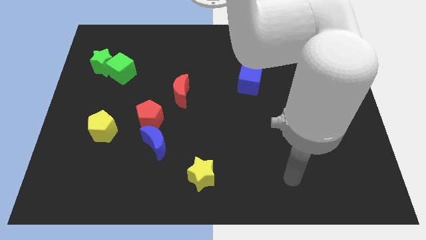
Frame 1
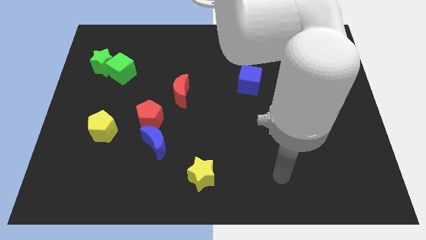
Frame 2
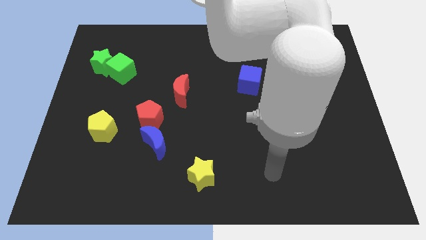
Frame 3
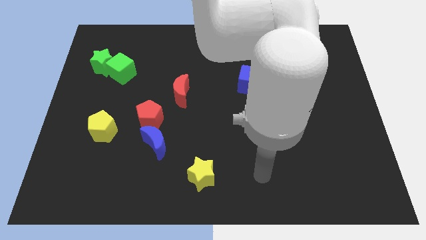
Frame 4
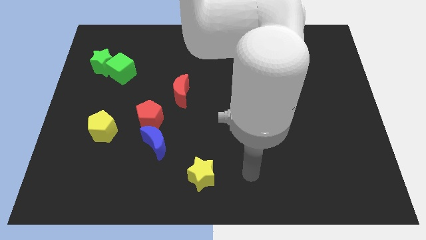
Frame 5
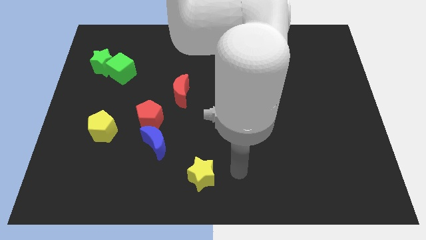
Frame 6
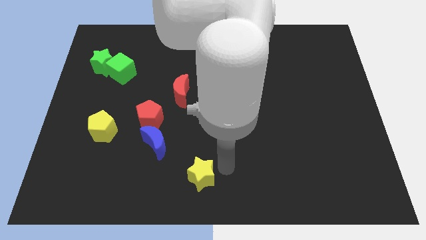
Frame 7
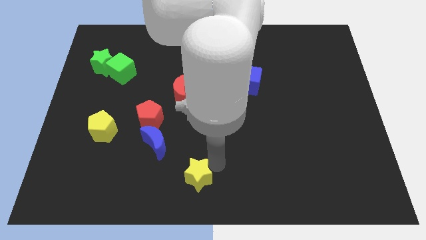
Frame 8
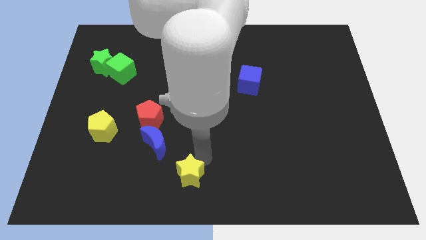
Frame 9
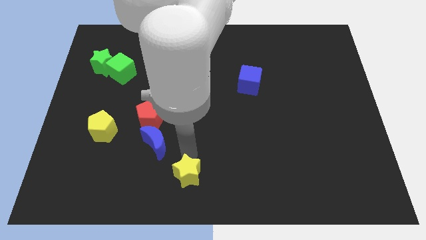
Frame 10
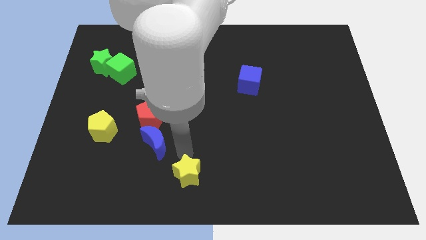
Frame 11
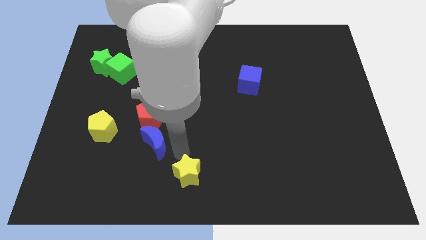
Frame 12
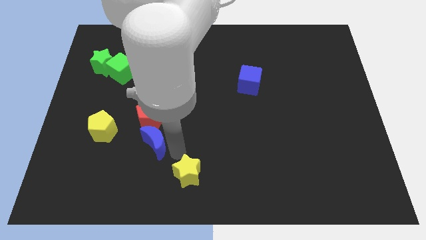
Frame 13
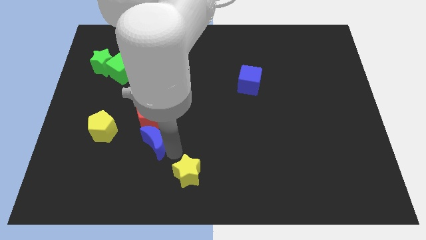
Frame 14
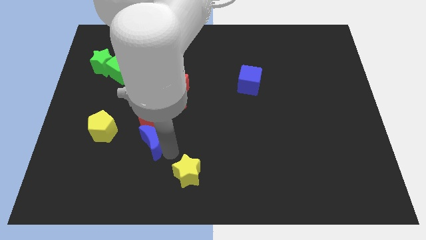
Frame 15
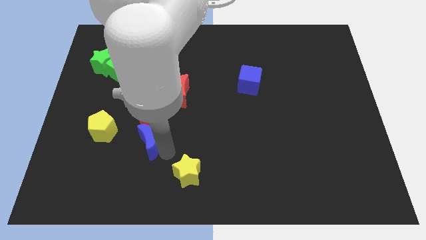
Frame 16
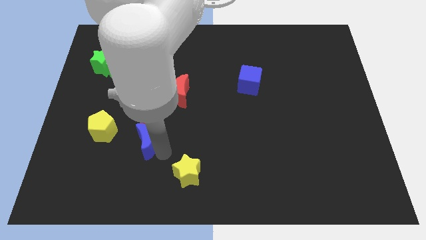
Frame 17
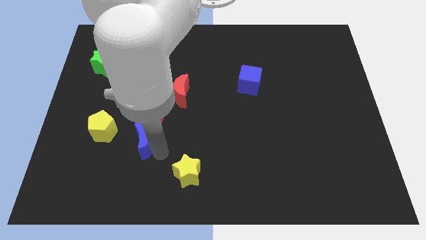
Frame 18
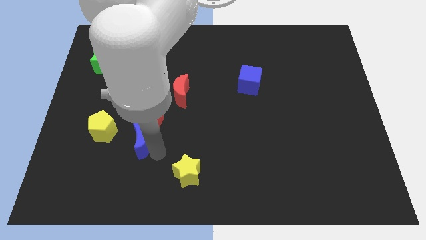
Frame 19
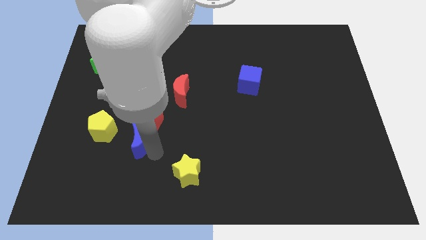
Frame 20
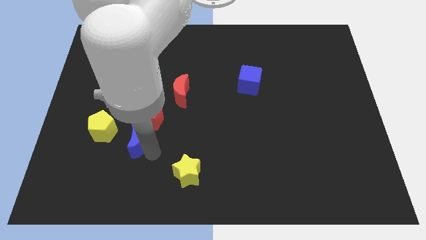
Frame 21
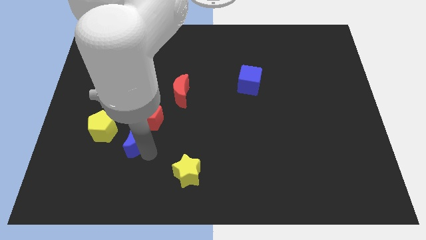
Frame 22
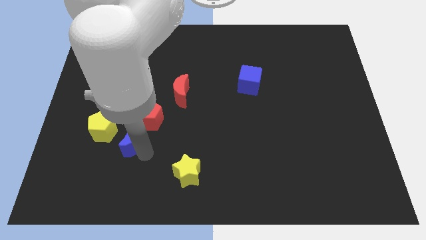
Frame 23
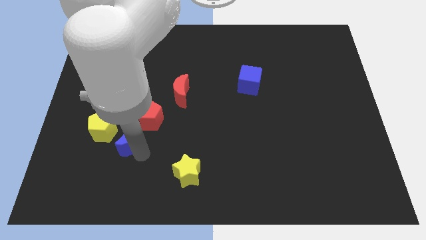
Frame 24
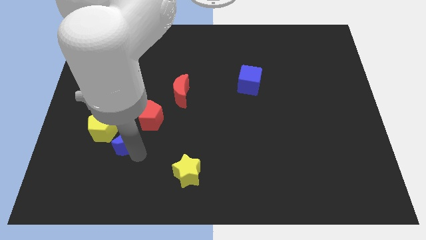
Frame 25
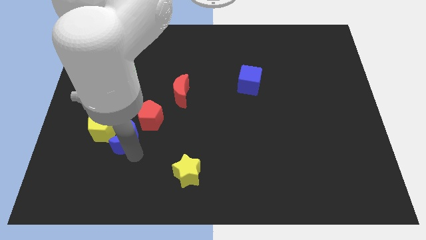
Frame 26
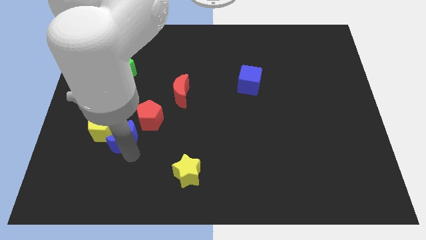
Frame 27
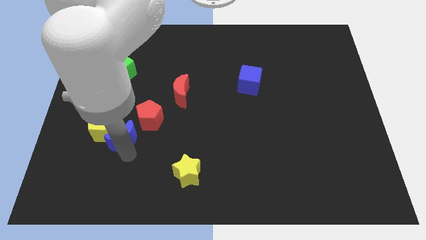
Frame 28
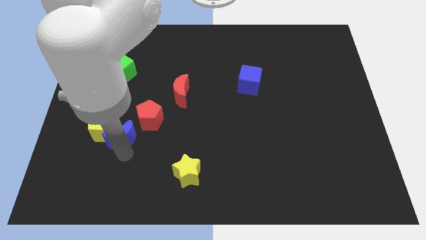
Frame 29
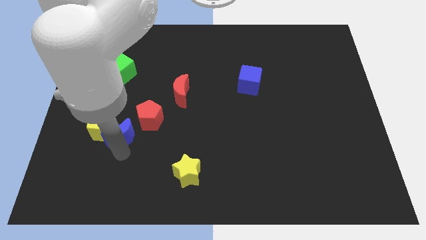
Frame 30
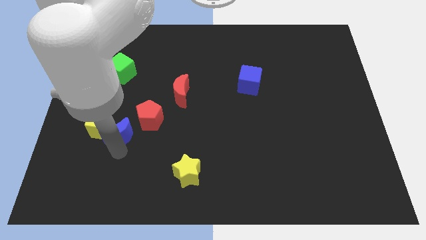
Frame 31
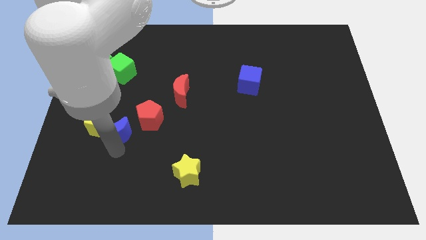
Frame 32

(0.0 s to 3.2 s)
slightly move the blue moon upwards and to the left

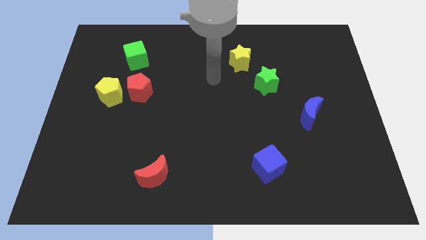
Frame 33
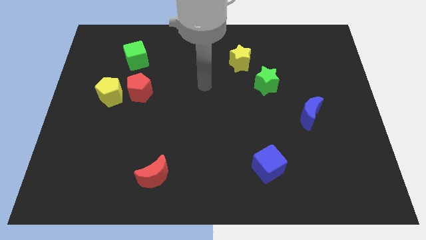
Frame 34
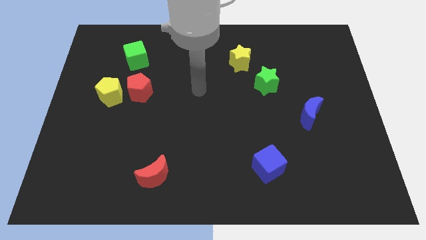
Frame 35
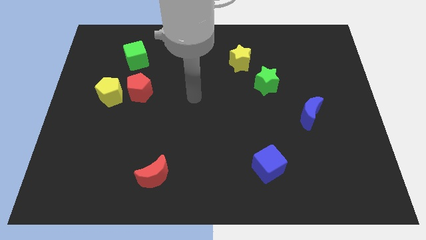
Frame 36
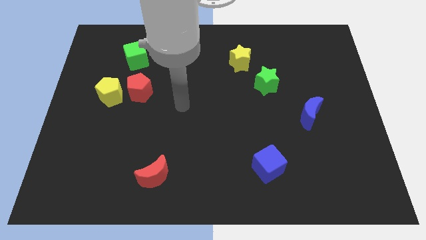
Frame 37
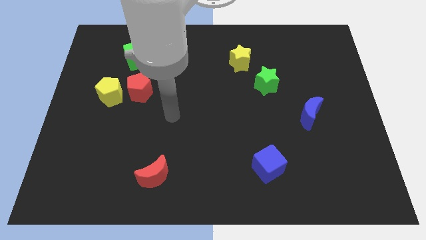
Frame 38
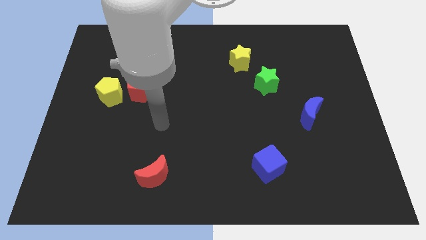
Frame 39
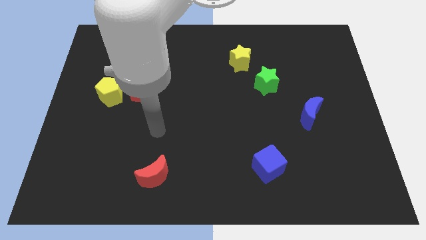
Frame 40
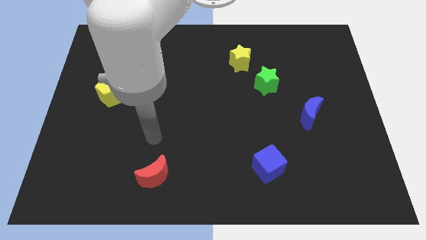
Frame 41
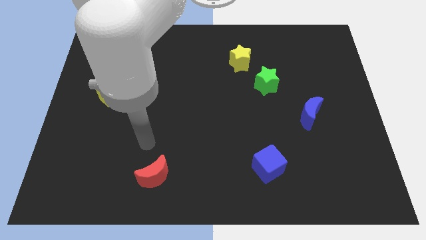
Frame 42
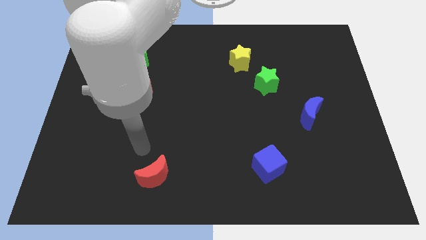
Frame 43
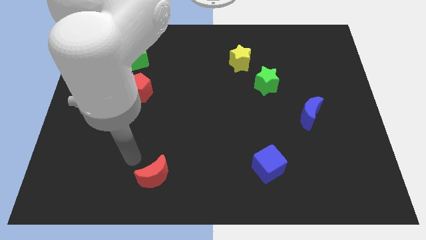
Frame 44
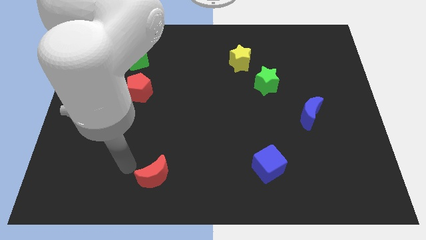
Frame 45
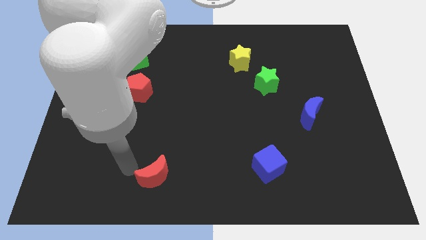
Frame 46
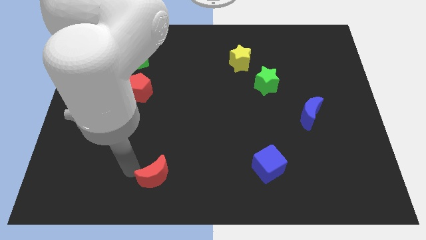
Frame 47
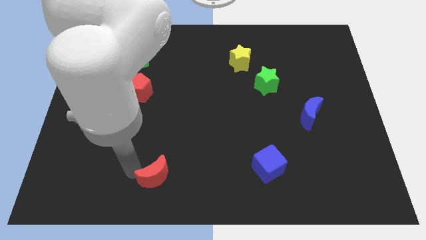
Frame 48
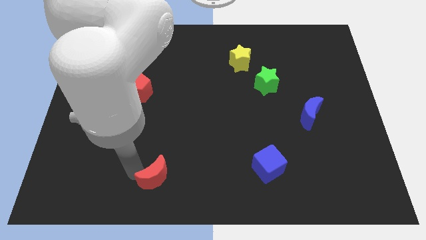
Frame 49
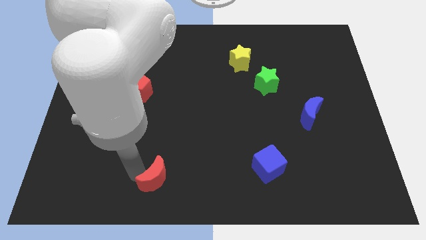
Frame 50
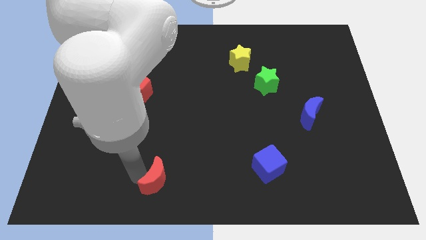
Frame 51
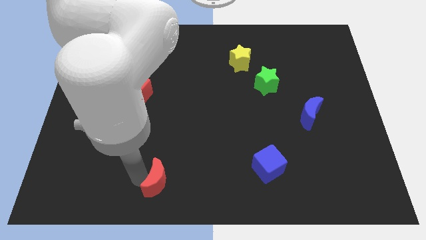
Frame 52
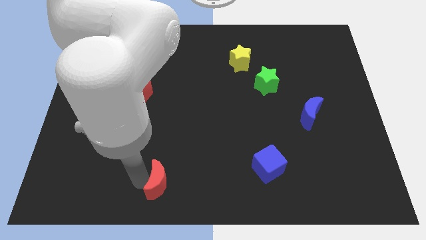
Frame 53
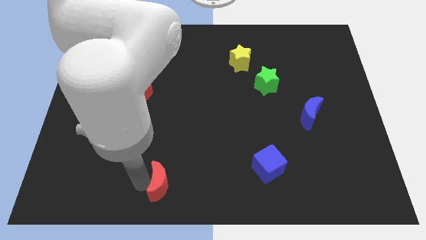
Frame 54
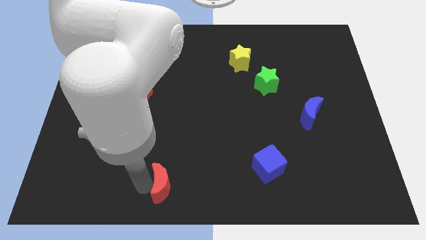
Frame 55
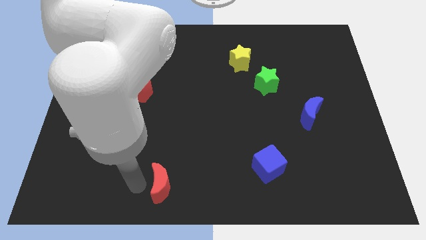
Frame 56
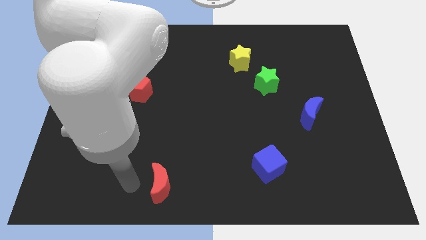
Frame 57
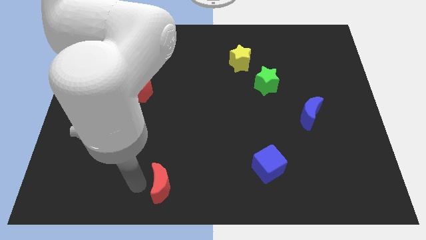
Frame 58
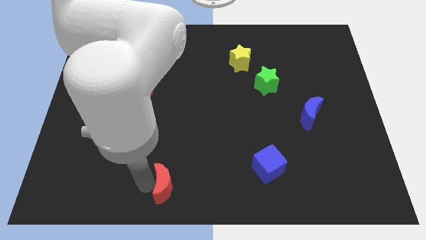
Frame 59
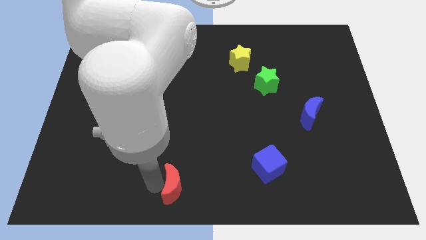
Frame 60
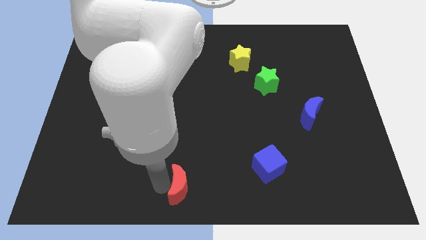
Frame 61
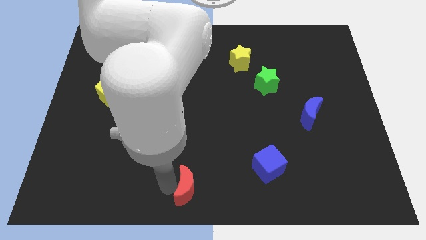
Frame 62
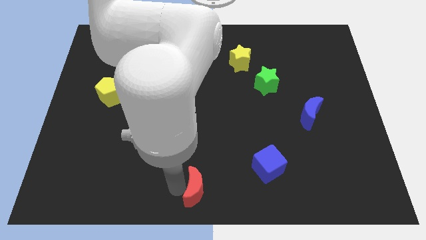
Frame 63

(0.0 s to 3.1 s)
move the red moon slightly right

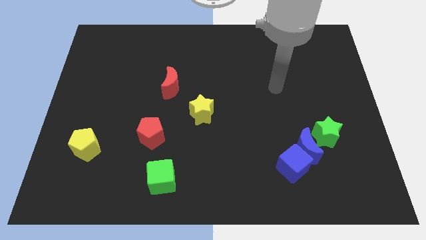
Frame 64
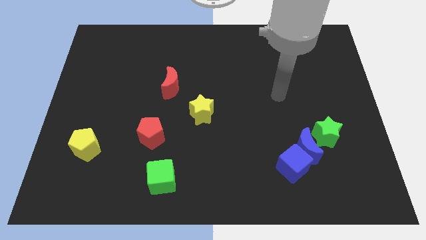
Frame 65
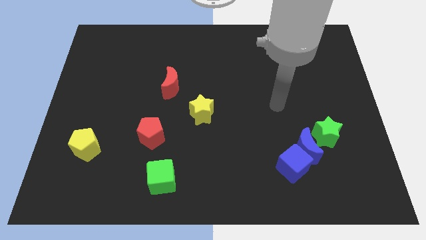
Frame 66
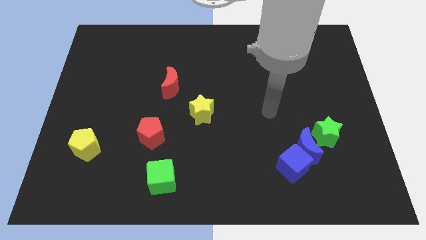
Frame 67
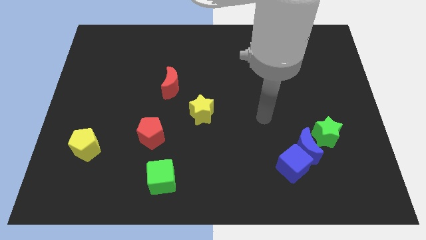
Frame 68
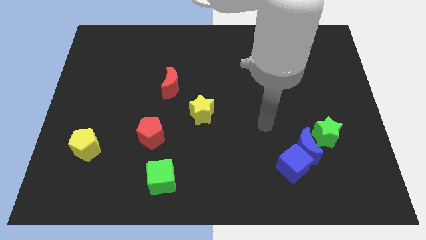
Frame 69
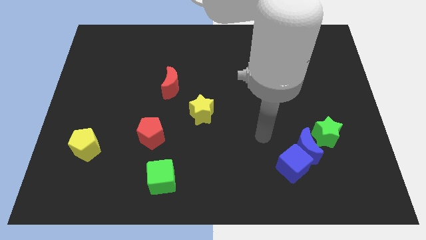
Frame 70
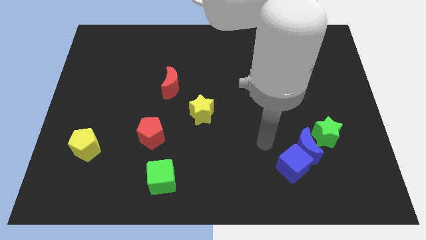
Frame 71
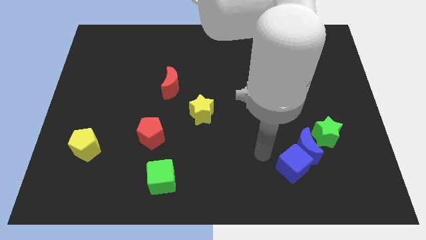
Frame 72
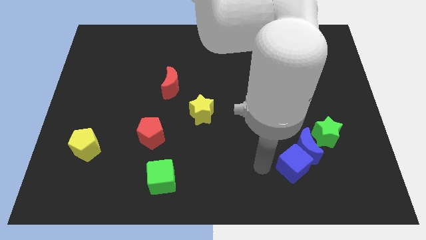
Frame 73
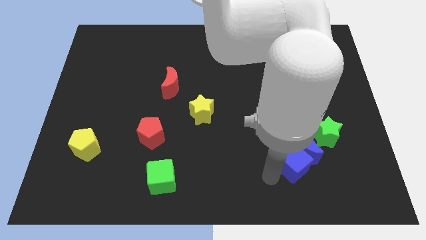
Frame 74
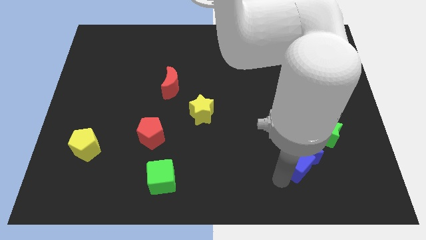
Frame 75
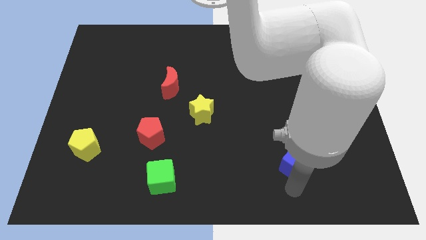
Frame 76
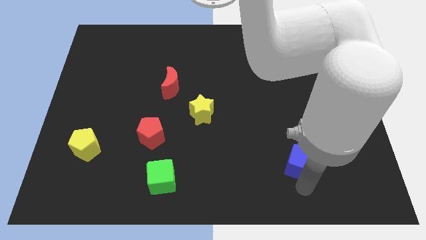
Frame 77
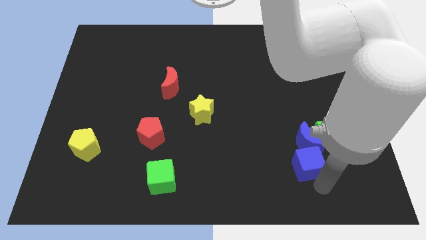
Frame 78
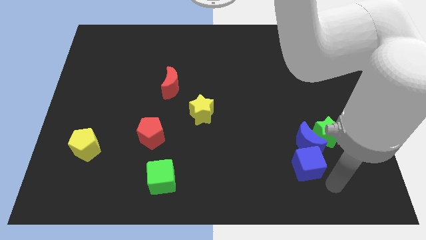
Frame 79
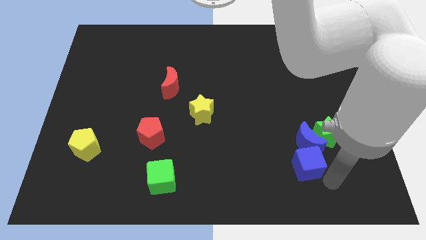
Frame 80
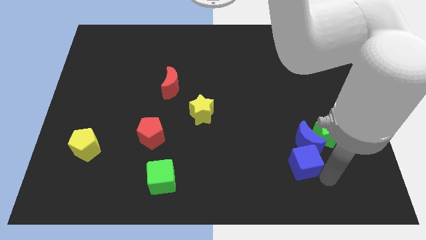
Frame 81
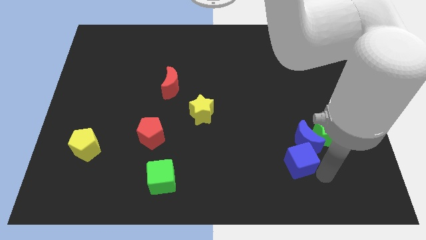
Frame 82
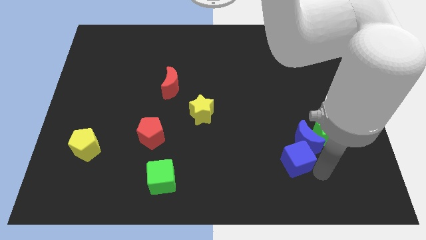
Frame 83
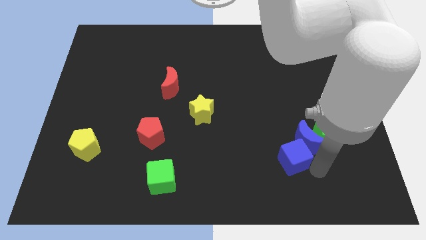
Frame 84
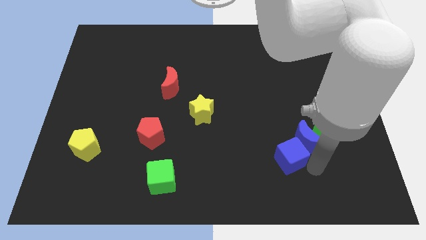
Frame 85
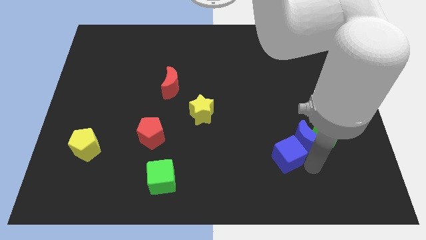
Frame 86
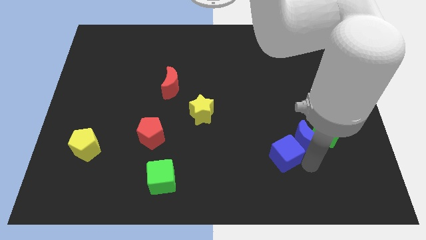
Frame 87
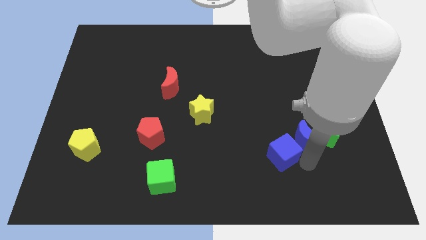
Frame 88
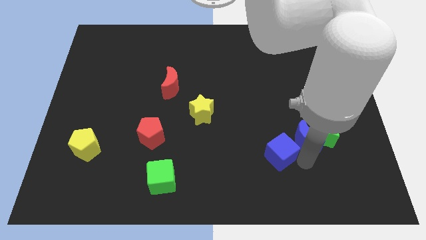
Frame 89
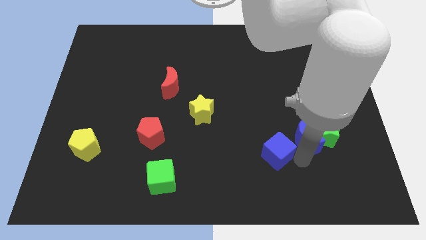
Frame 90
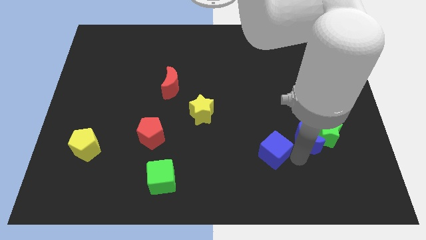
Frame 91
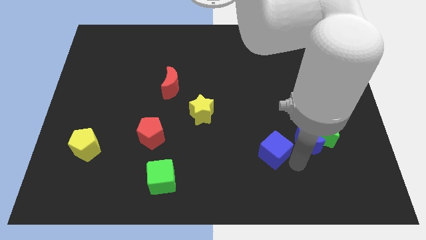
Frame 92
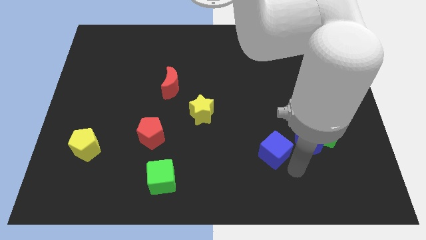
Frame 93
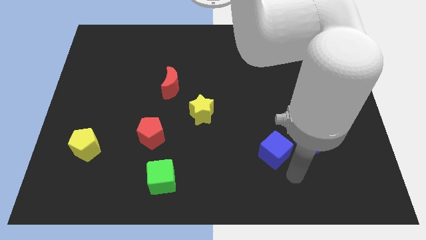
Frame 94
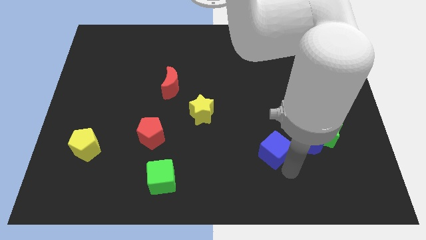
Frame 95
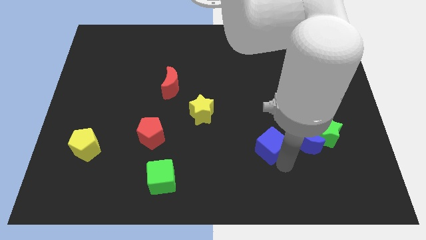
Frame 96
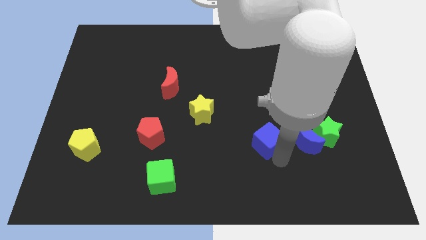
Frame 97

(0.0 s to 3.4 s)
move the blue cube a little bit upwards and left diagonally
